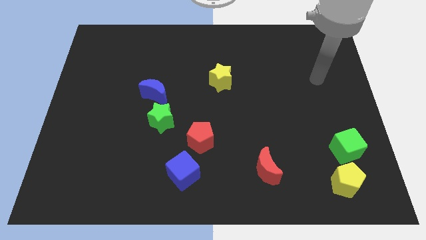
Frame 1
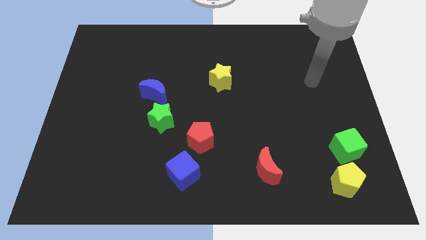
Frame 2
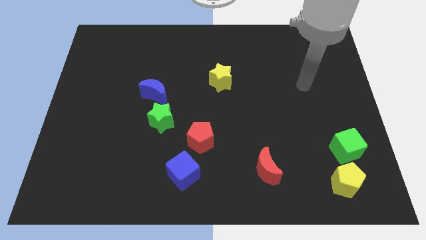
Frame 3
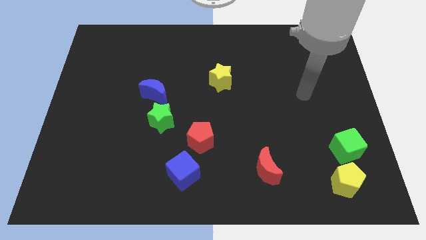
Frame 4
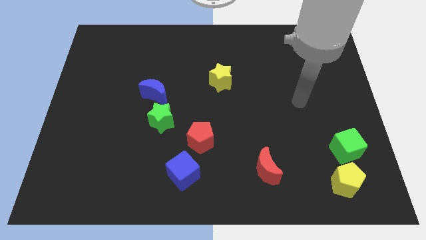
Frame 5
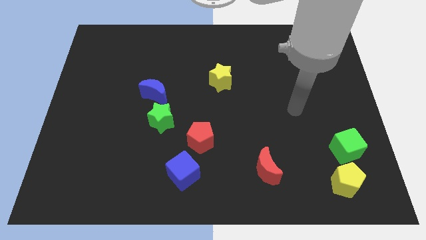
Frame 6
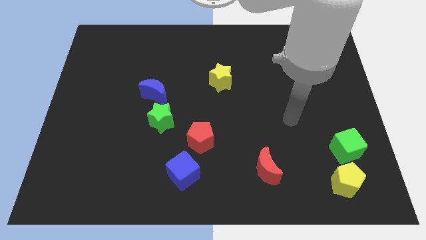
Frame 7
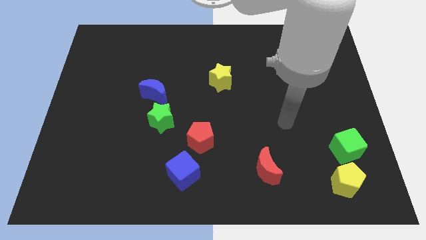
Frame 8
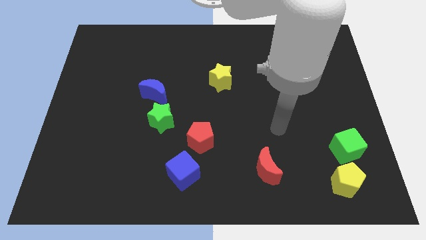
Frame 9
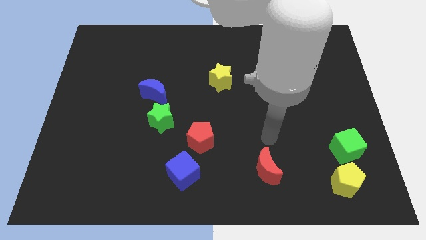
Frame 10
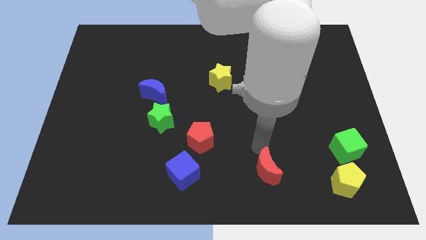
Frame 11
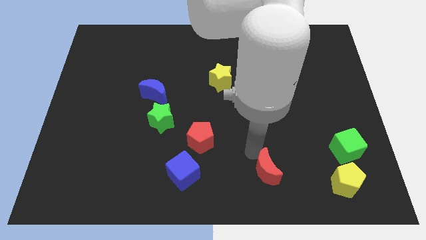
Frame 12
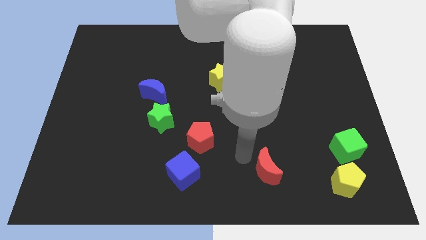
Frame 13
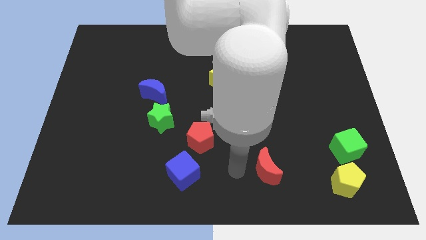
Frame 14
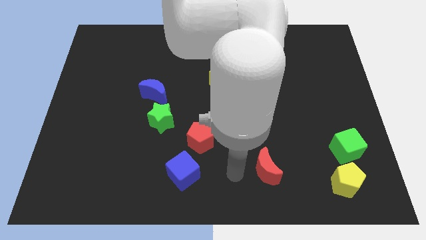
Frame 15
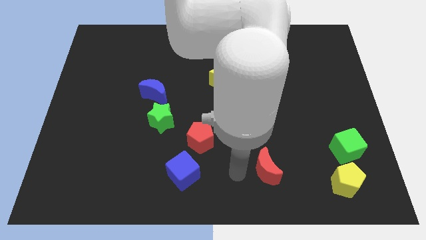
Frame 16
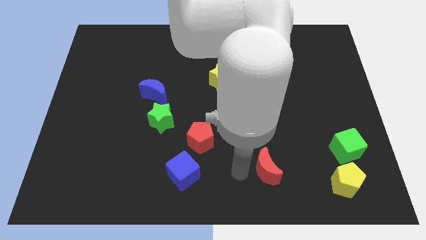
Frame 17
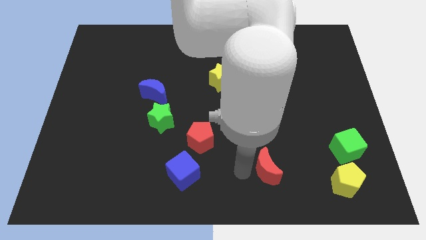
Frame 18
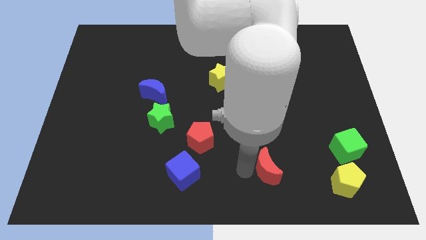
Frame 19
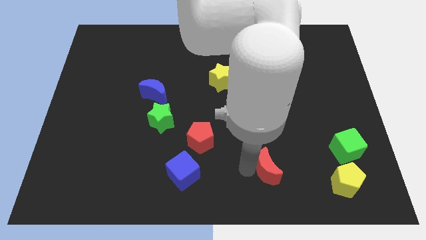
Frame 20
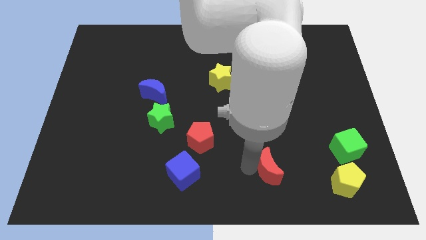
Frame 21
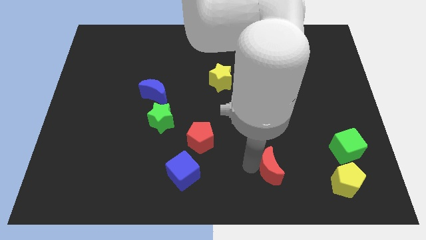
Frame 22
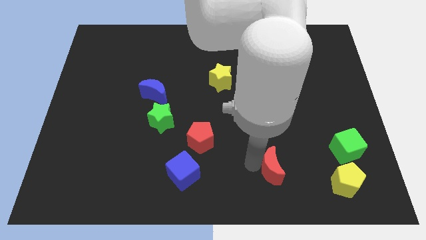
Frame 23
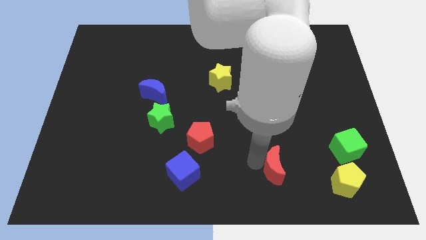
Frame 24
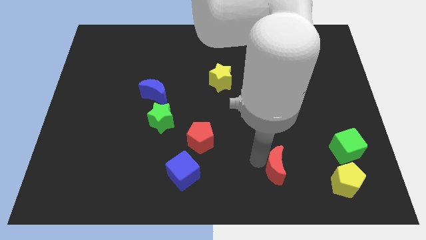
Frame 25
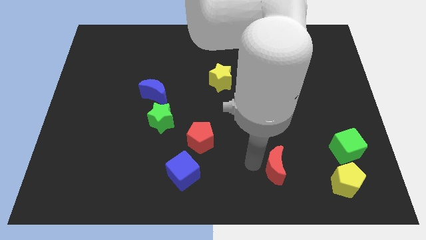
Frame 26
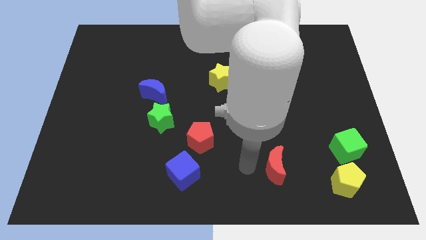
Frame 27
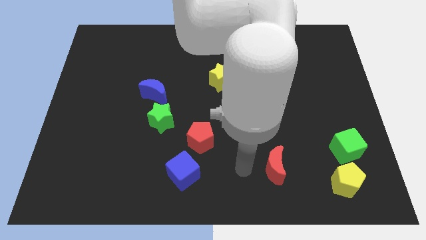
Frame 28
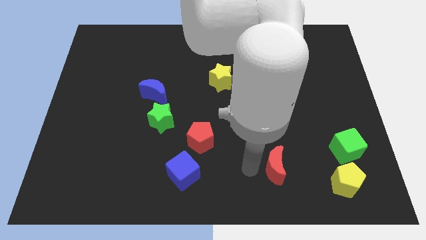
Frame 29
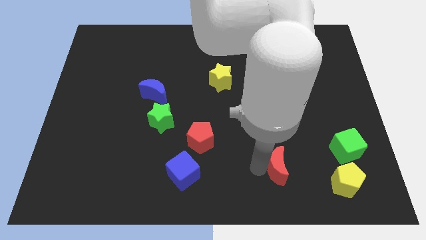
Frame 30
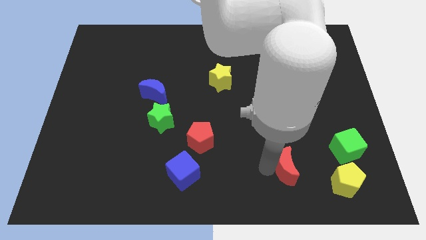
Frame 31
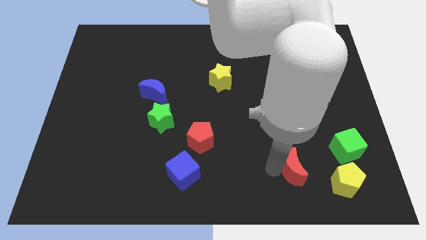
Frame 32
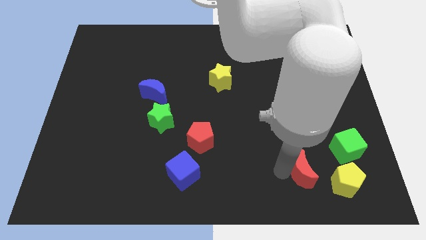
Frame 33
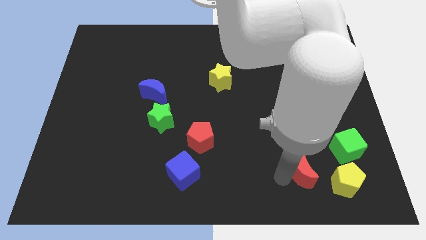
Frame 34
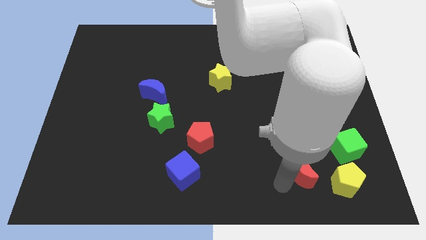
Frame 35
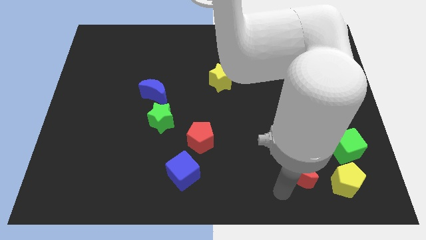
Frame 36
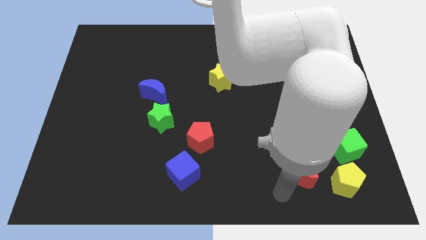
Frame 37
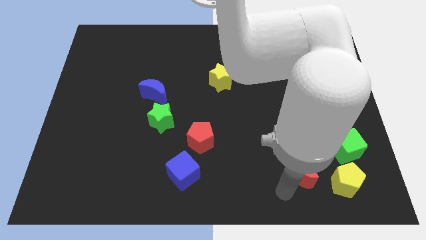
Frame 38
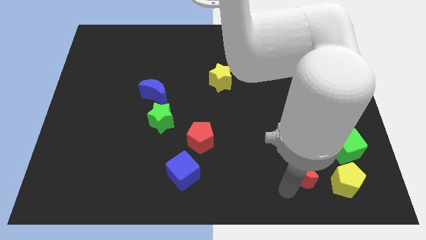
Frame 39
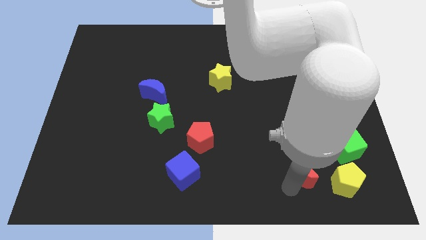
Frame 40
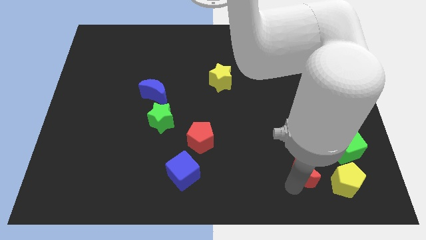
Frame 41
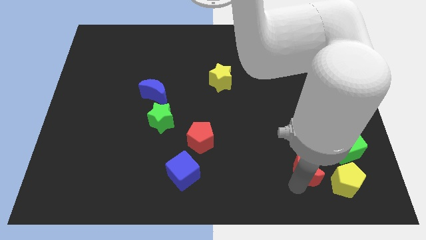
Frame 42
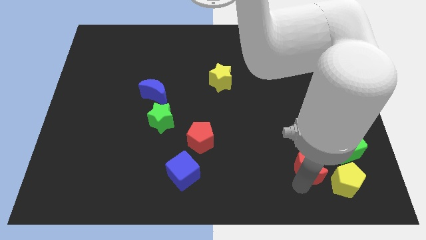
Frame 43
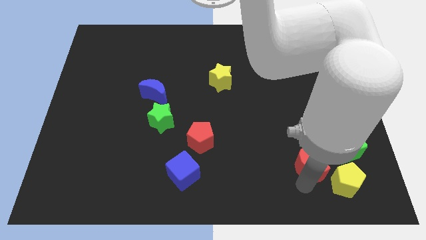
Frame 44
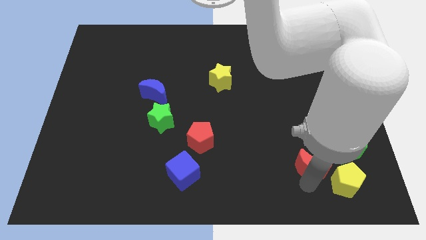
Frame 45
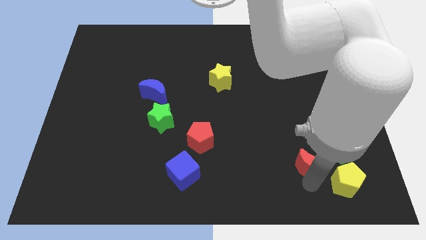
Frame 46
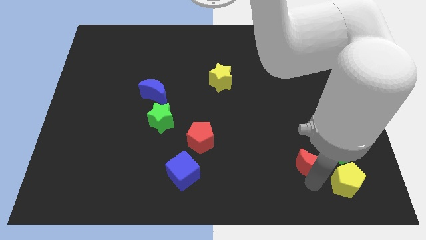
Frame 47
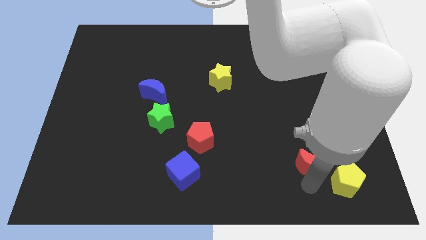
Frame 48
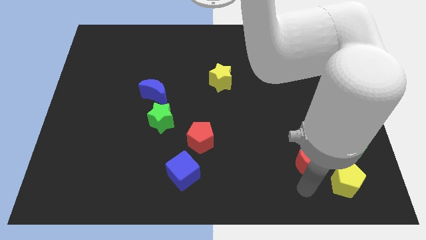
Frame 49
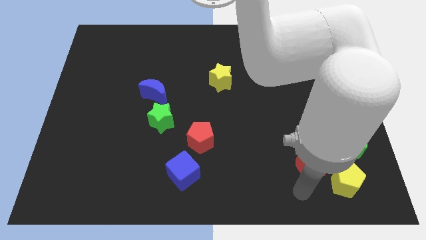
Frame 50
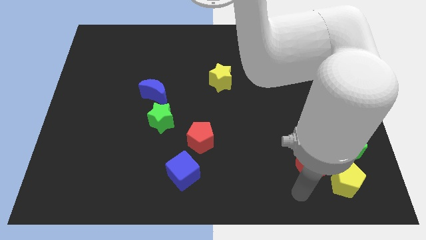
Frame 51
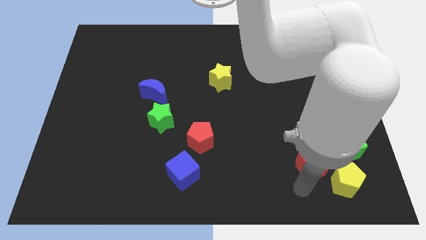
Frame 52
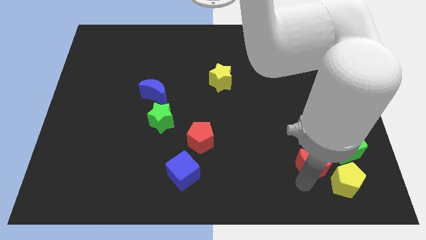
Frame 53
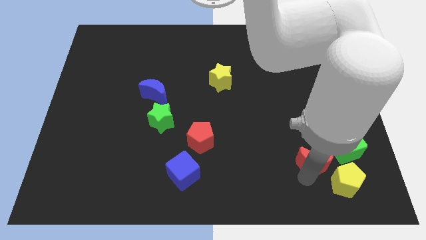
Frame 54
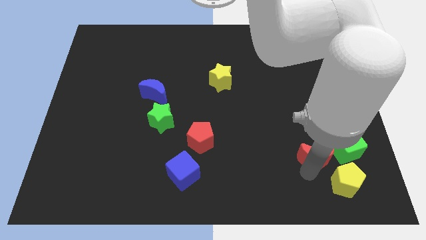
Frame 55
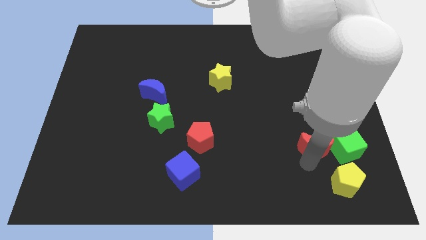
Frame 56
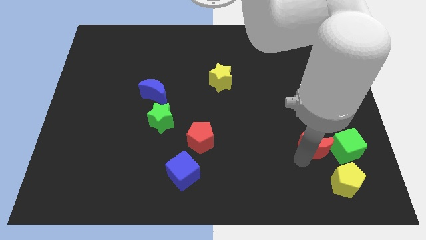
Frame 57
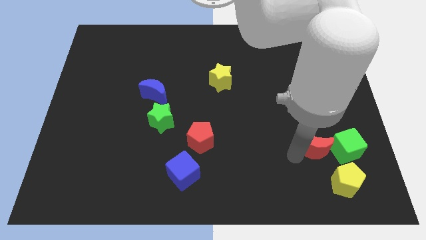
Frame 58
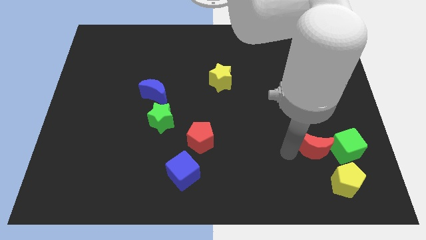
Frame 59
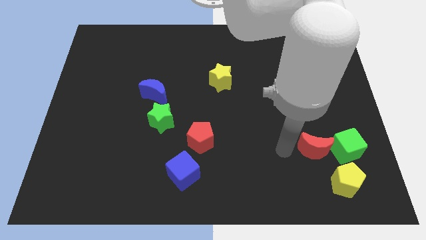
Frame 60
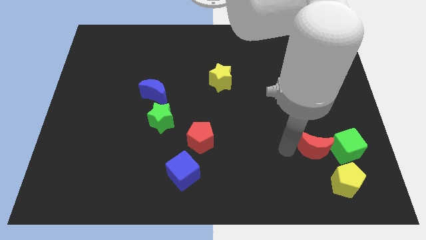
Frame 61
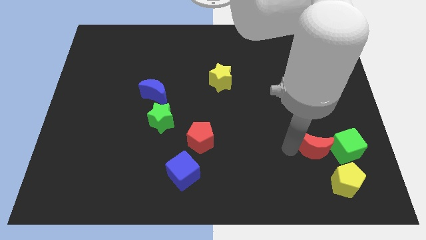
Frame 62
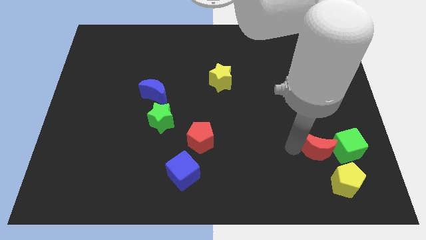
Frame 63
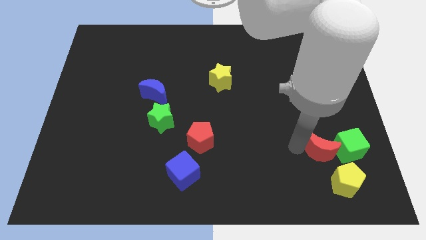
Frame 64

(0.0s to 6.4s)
move the red moon next to the green cube
